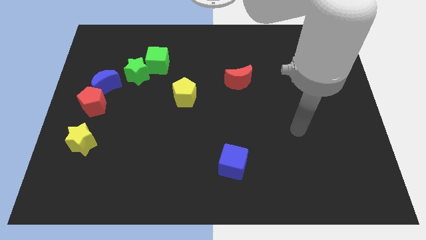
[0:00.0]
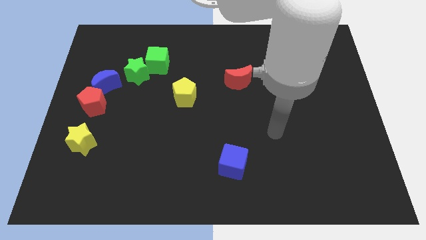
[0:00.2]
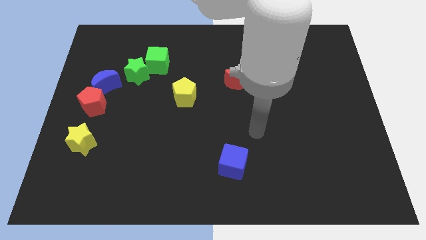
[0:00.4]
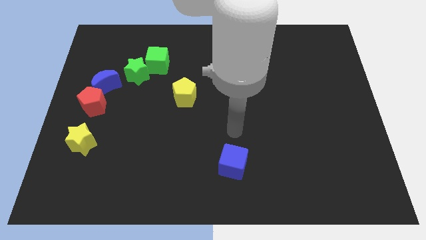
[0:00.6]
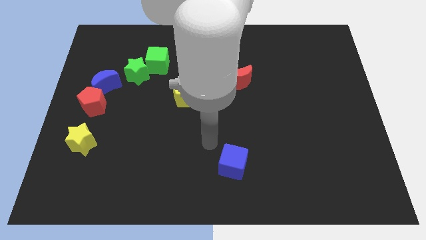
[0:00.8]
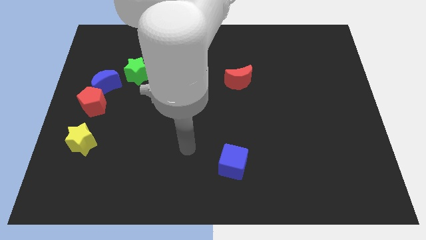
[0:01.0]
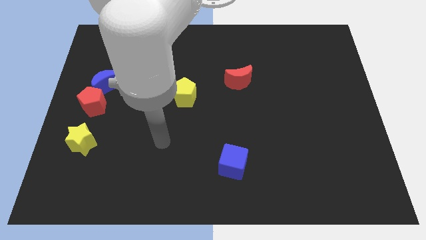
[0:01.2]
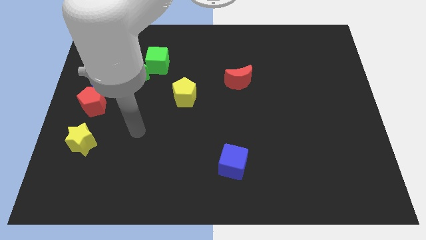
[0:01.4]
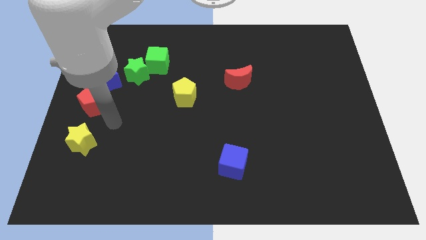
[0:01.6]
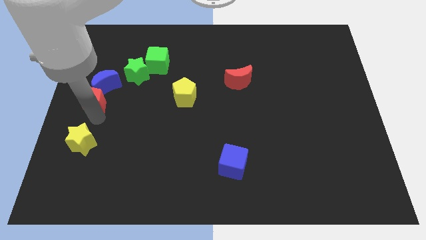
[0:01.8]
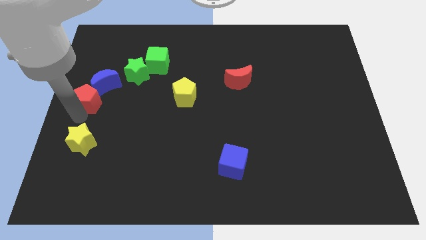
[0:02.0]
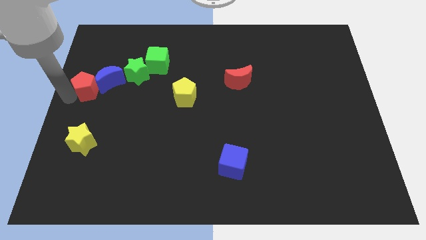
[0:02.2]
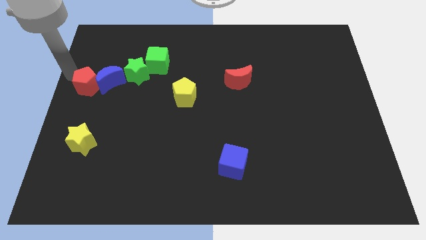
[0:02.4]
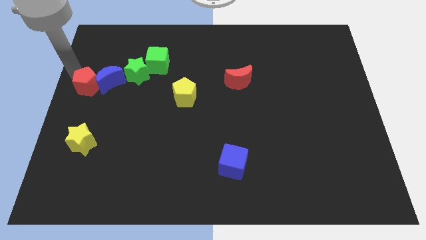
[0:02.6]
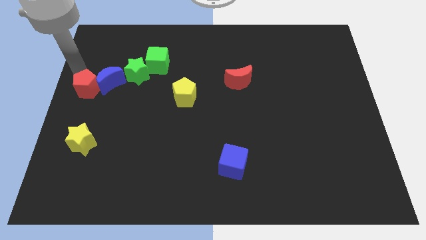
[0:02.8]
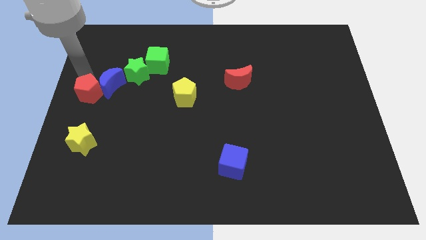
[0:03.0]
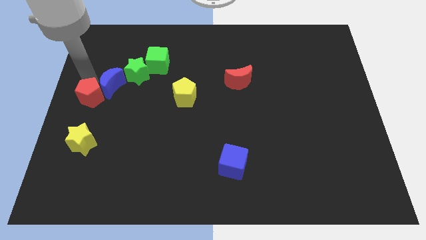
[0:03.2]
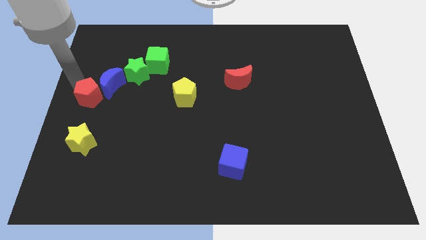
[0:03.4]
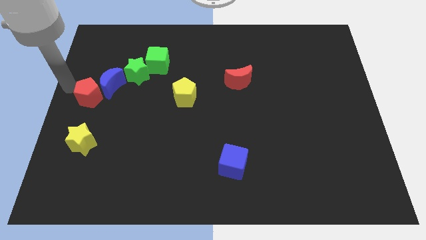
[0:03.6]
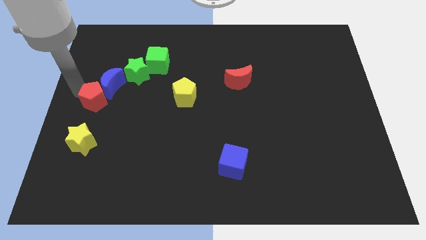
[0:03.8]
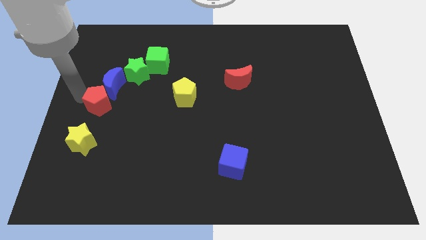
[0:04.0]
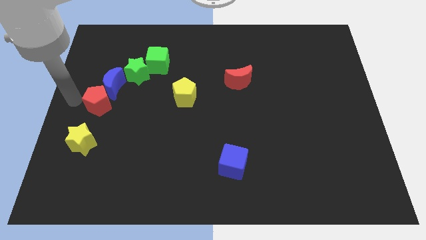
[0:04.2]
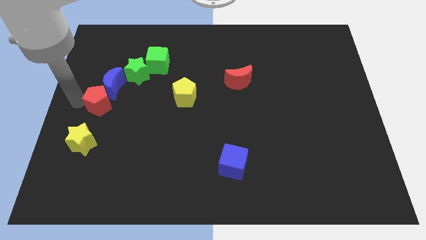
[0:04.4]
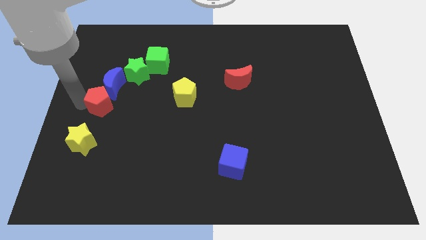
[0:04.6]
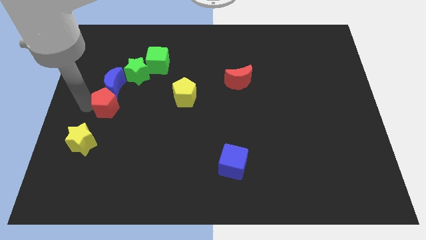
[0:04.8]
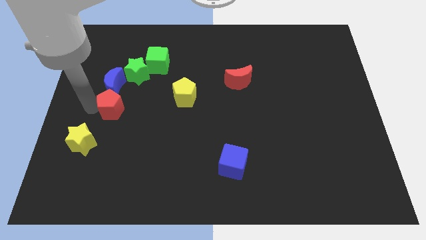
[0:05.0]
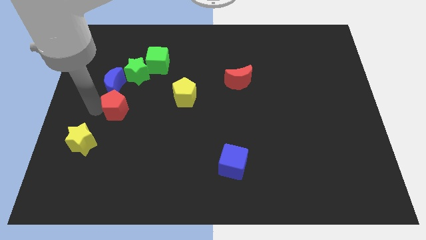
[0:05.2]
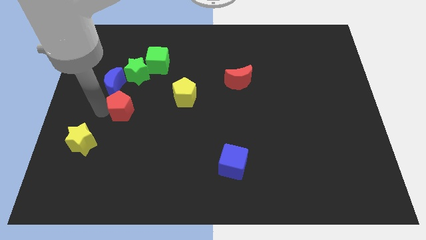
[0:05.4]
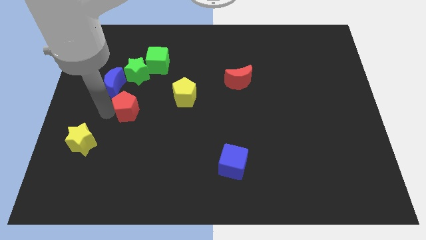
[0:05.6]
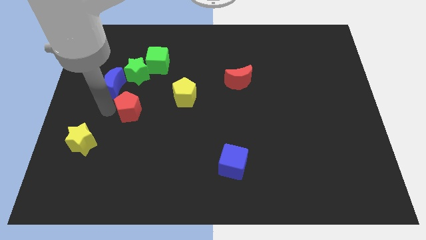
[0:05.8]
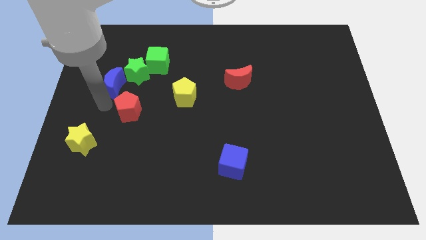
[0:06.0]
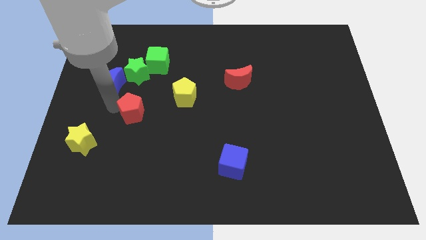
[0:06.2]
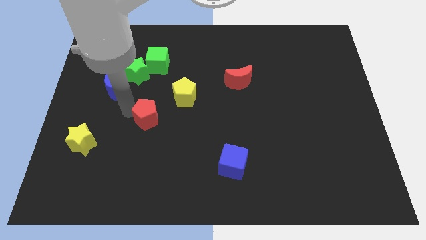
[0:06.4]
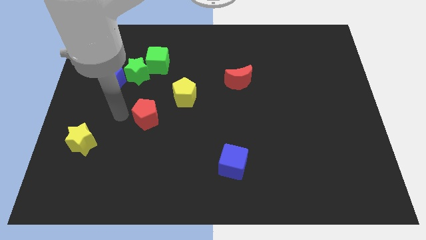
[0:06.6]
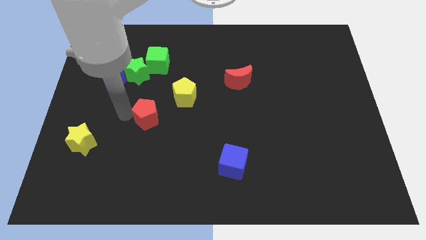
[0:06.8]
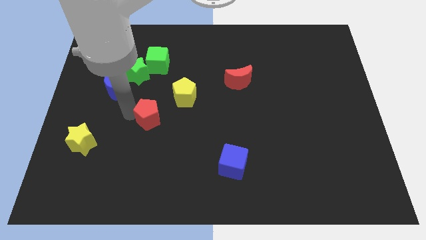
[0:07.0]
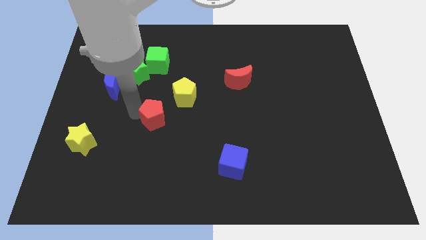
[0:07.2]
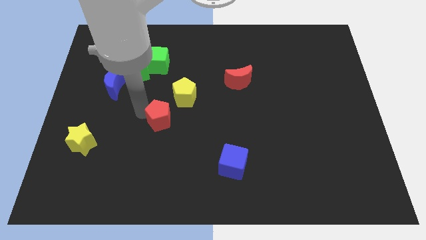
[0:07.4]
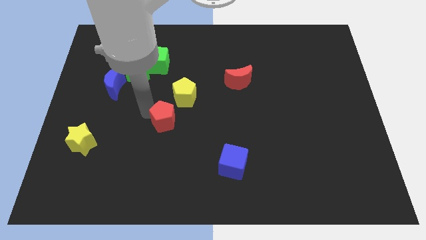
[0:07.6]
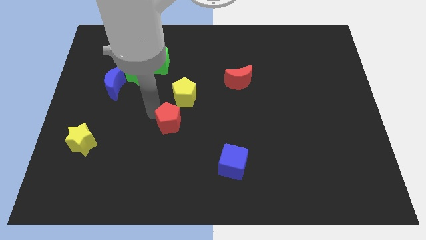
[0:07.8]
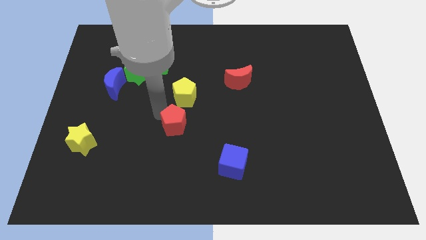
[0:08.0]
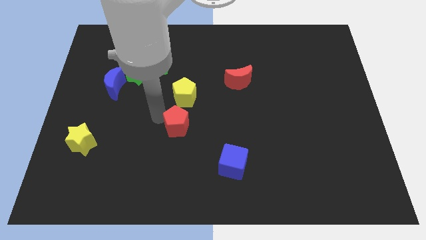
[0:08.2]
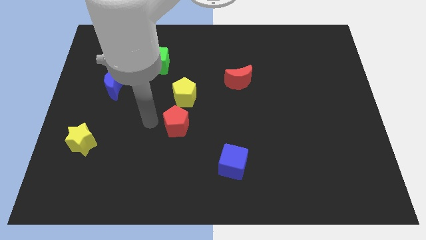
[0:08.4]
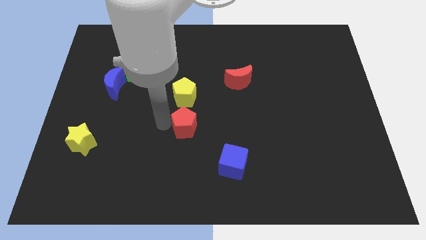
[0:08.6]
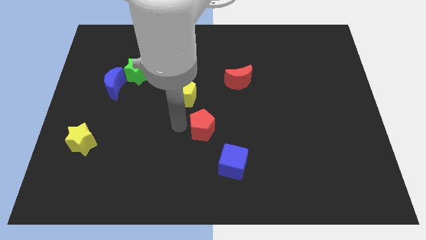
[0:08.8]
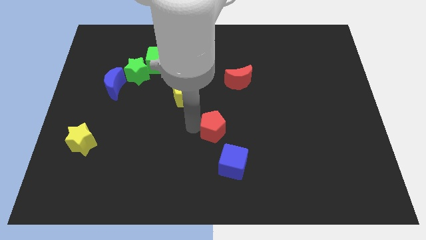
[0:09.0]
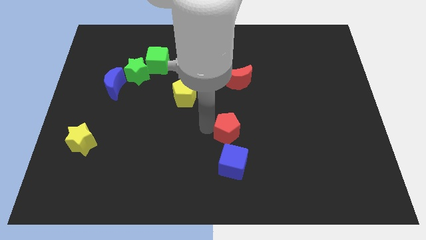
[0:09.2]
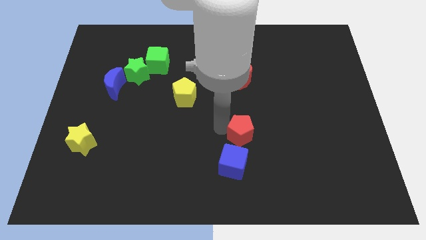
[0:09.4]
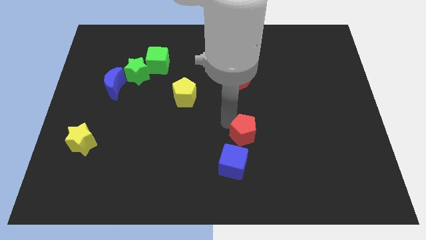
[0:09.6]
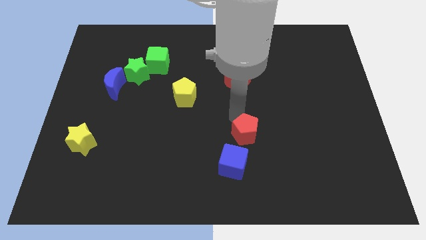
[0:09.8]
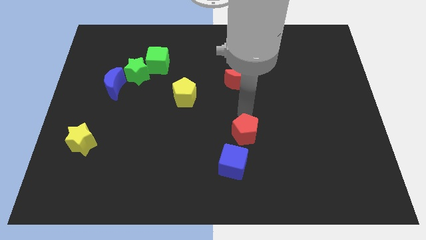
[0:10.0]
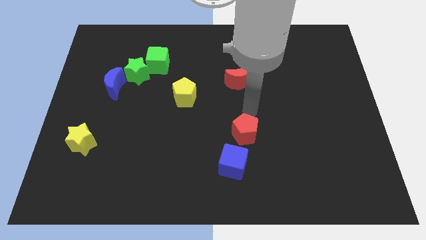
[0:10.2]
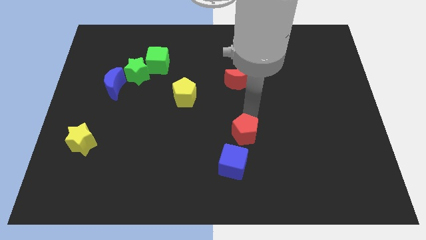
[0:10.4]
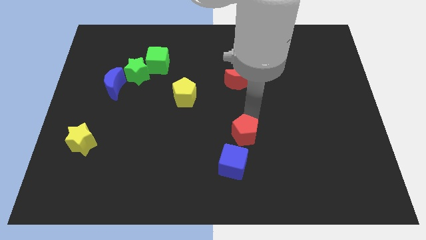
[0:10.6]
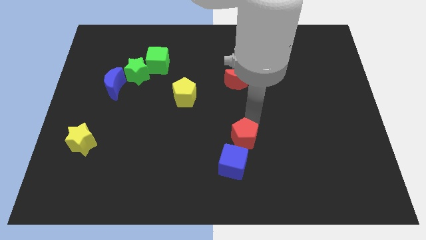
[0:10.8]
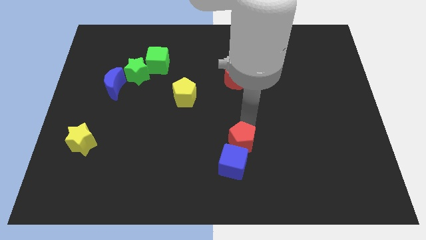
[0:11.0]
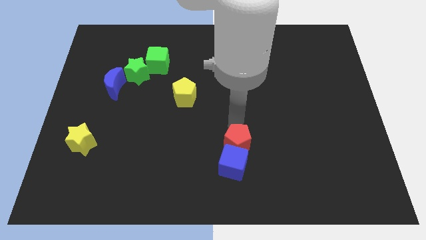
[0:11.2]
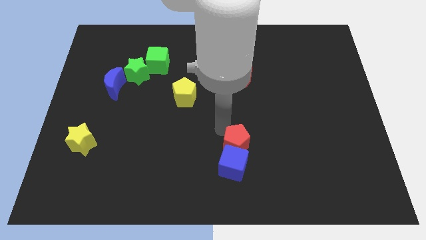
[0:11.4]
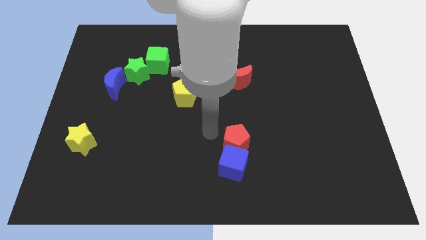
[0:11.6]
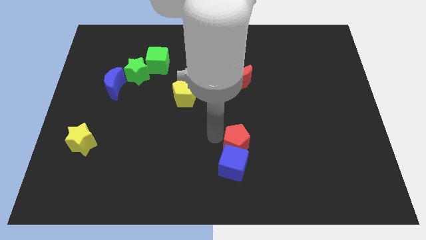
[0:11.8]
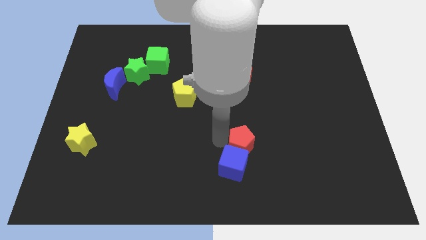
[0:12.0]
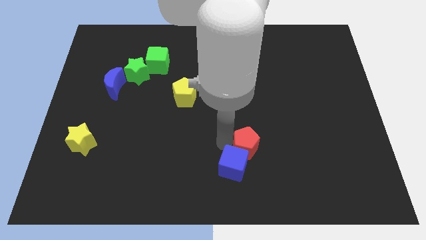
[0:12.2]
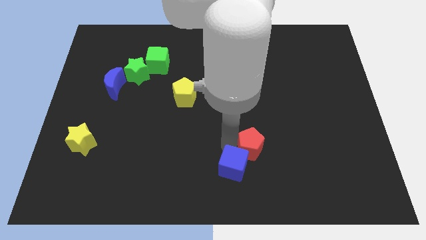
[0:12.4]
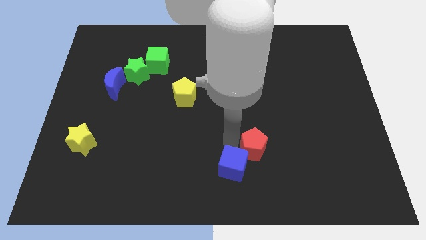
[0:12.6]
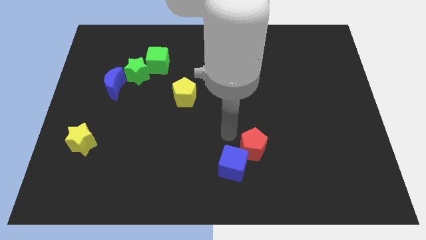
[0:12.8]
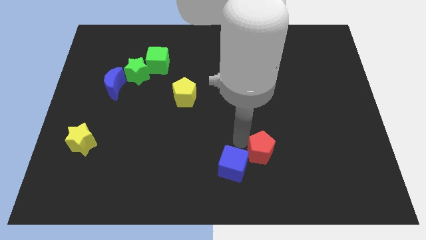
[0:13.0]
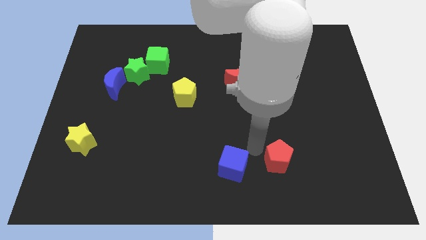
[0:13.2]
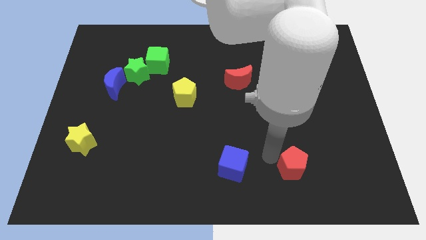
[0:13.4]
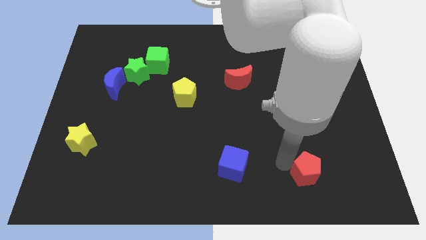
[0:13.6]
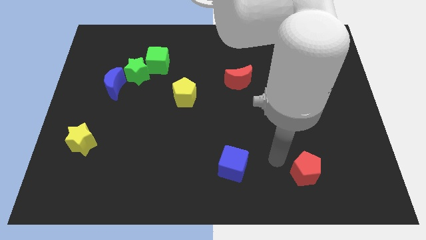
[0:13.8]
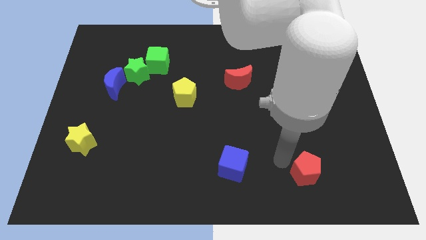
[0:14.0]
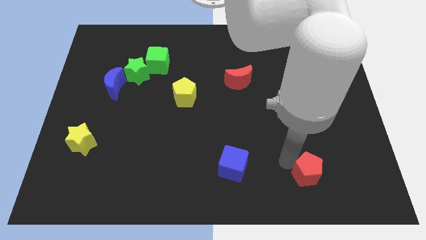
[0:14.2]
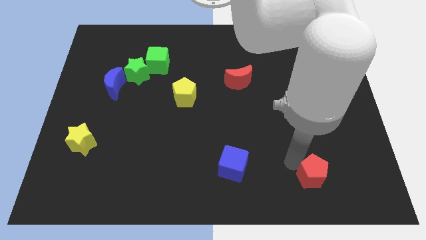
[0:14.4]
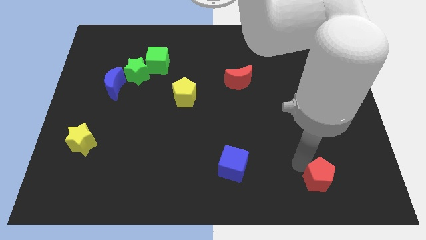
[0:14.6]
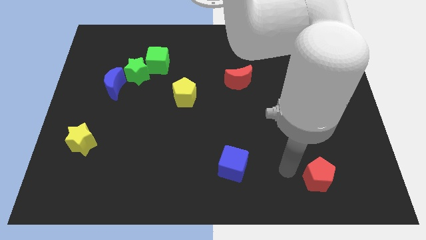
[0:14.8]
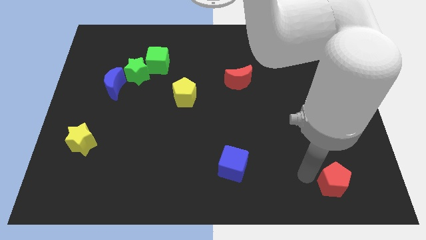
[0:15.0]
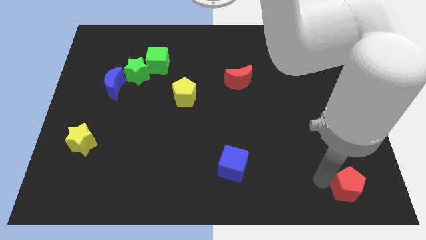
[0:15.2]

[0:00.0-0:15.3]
push the red pentagon to the bottom right of the board

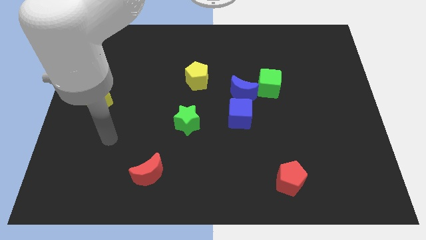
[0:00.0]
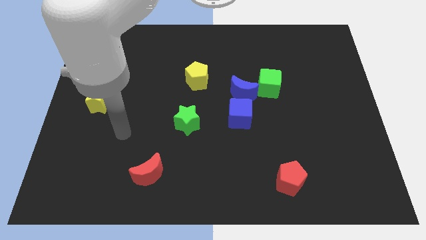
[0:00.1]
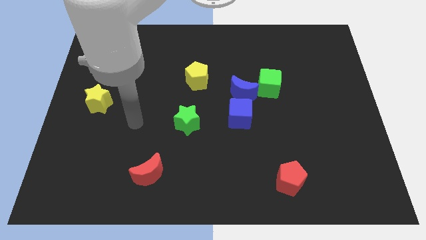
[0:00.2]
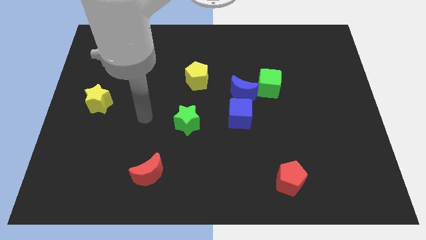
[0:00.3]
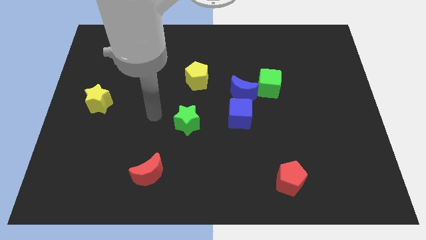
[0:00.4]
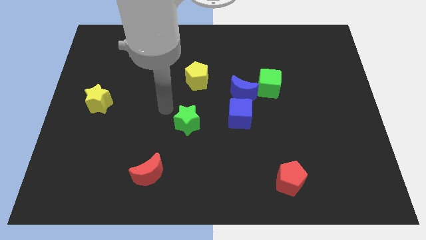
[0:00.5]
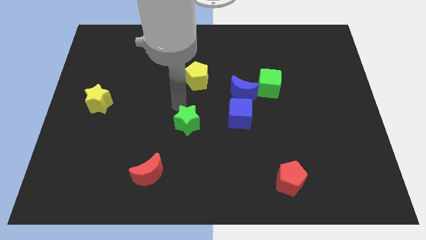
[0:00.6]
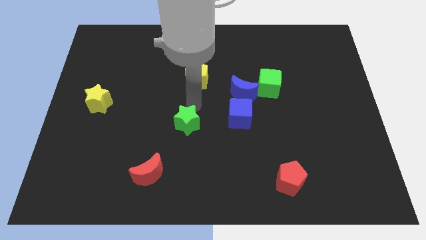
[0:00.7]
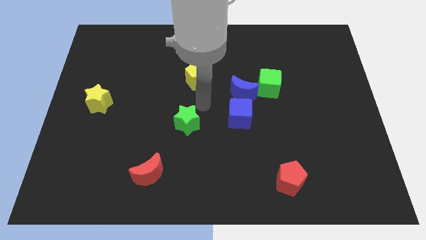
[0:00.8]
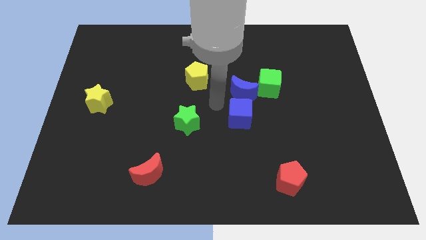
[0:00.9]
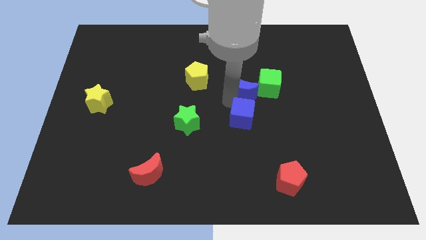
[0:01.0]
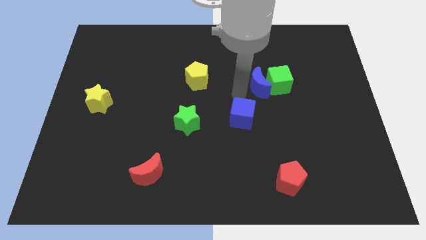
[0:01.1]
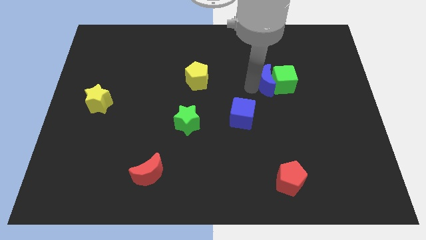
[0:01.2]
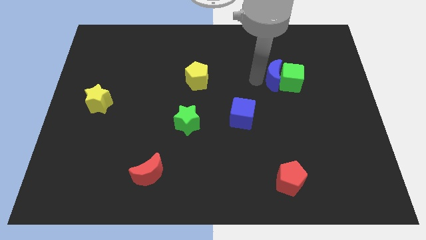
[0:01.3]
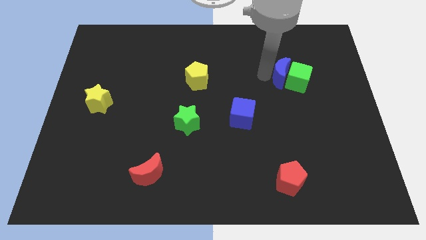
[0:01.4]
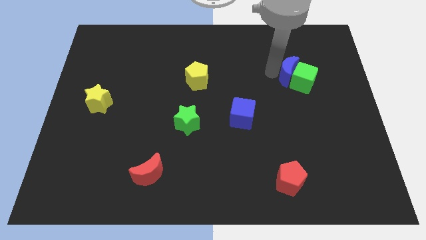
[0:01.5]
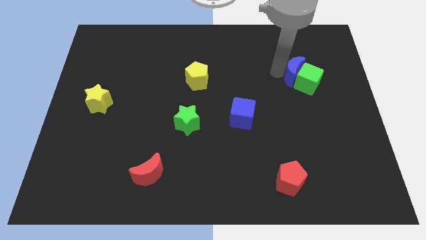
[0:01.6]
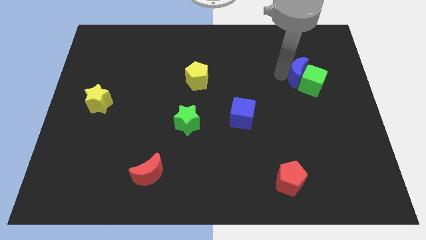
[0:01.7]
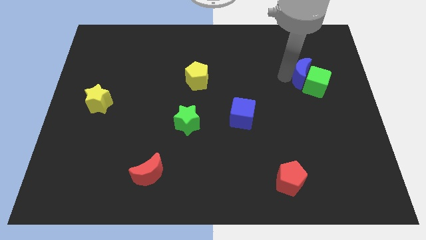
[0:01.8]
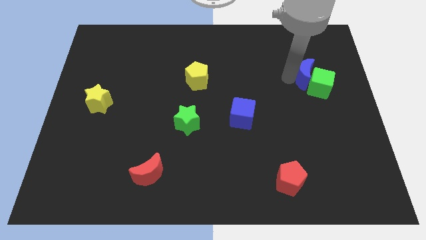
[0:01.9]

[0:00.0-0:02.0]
put the green cube to the right side
